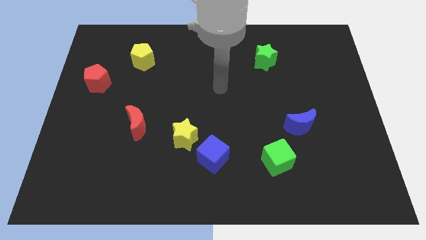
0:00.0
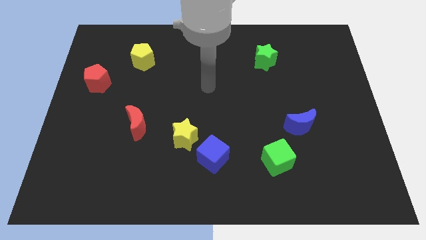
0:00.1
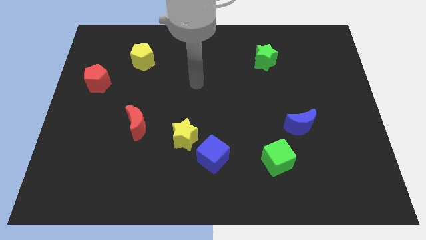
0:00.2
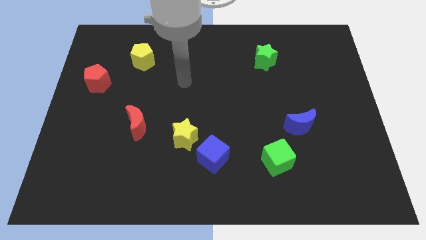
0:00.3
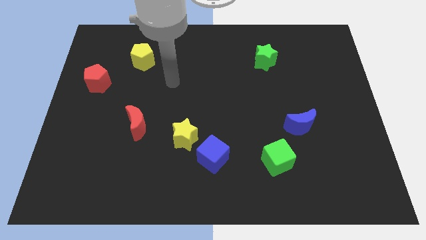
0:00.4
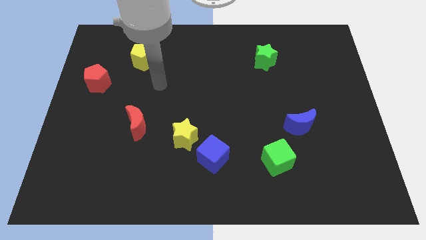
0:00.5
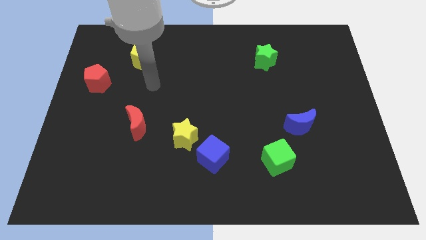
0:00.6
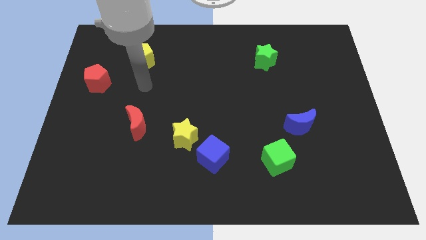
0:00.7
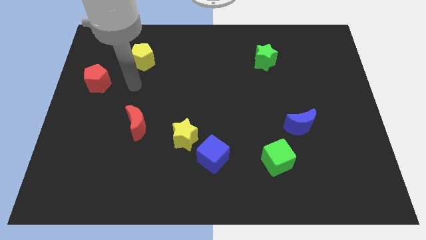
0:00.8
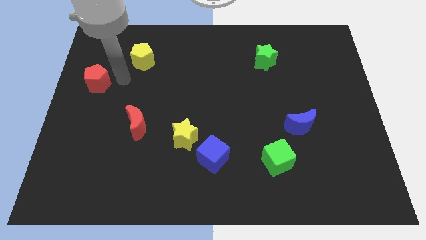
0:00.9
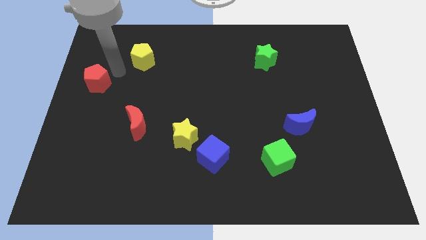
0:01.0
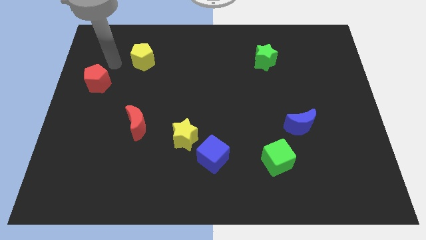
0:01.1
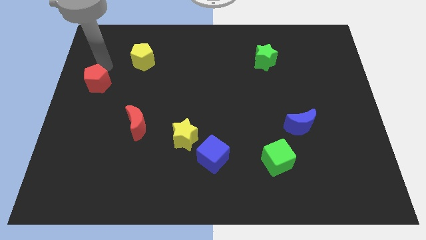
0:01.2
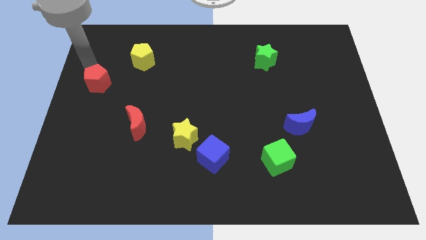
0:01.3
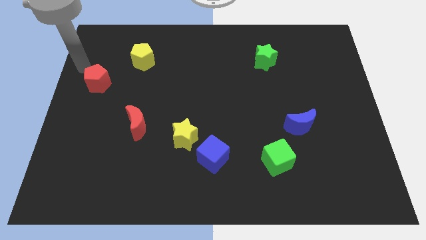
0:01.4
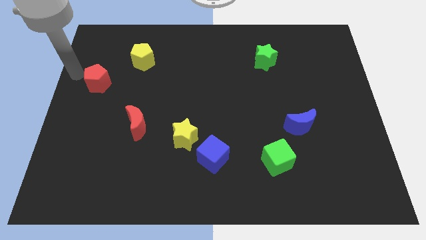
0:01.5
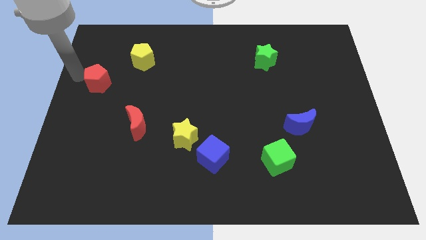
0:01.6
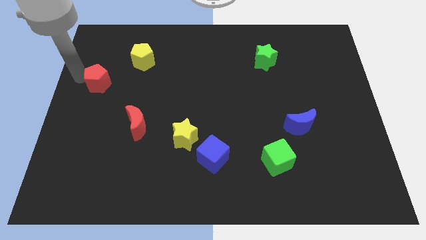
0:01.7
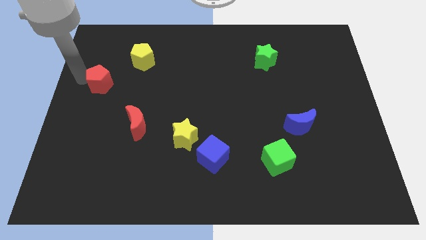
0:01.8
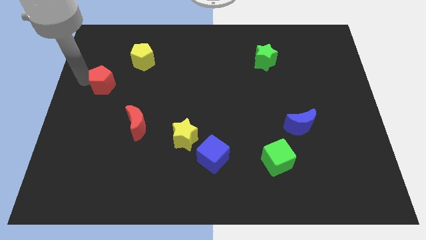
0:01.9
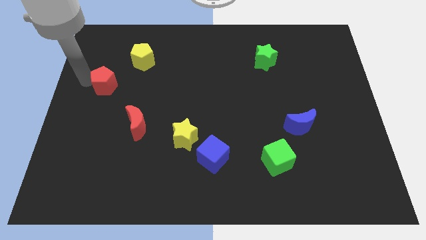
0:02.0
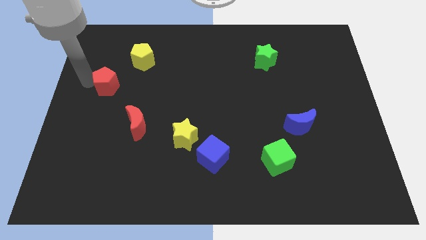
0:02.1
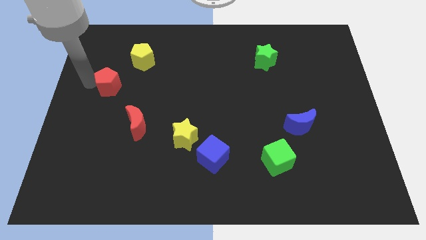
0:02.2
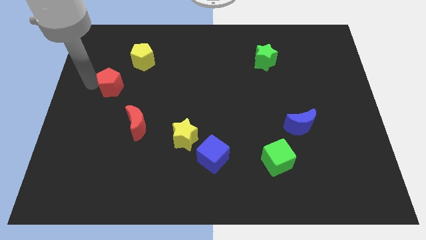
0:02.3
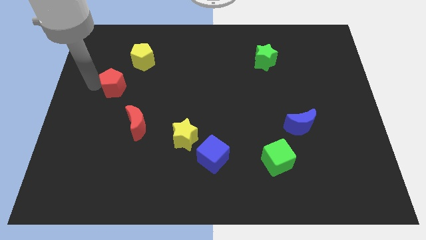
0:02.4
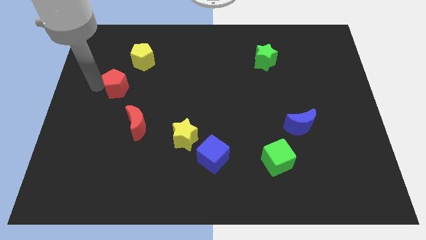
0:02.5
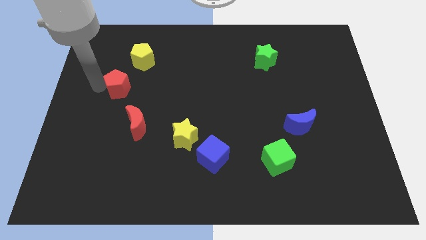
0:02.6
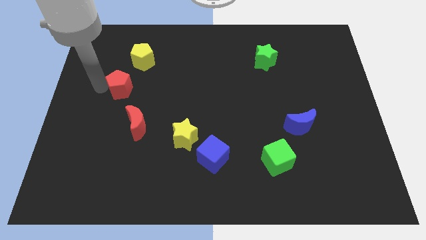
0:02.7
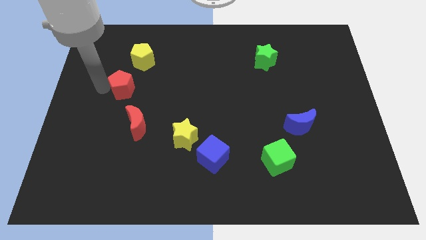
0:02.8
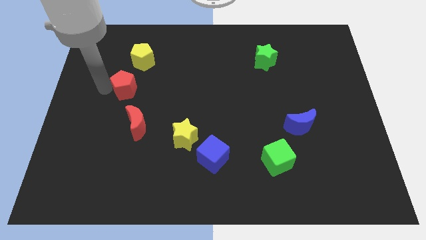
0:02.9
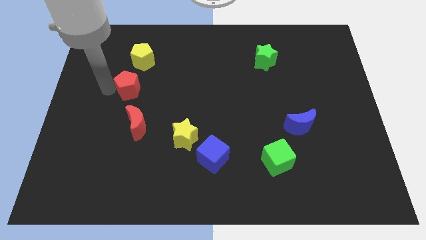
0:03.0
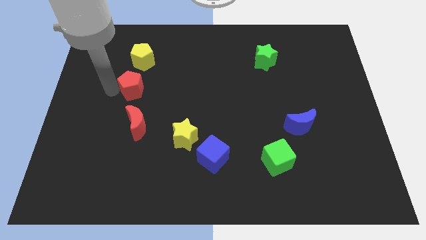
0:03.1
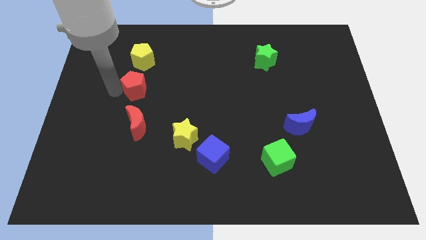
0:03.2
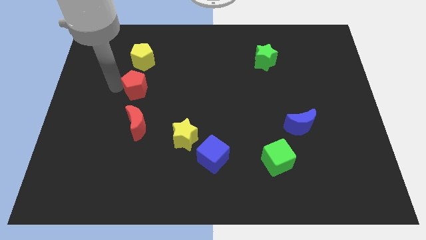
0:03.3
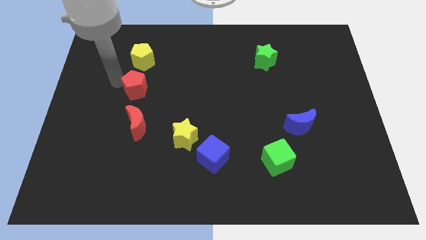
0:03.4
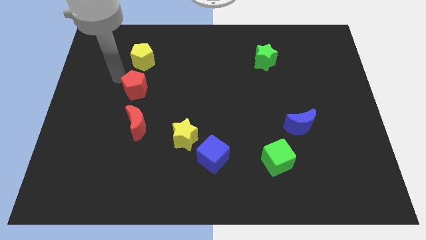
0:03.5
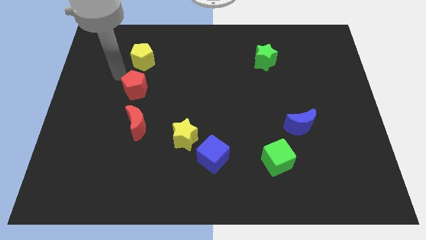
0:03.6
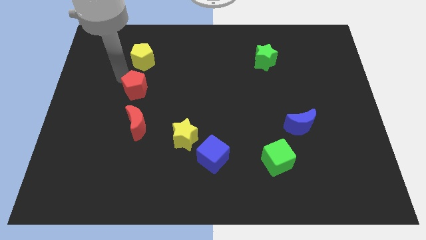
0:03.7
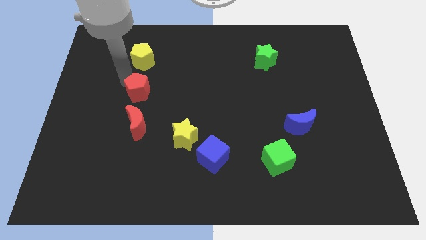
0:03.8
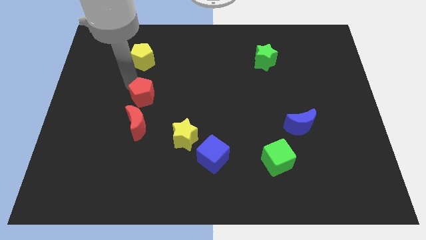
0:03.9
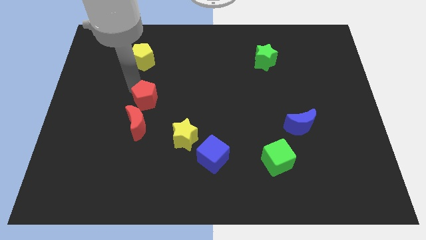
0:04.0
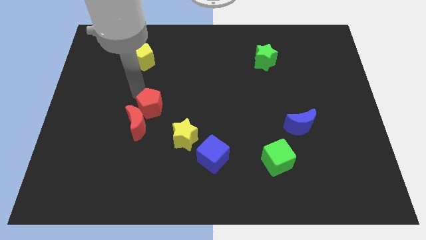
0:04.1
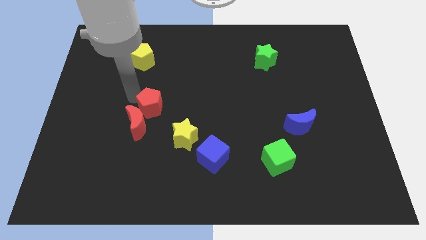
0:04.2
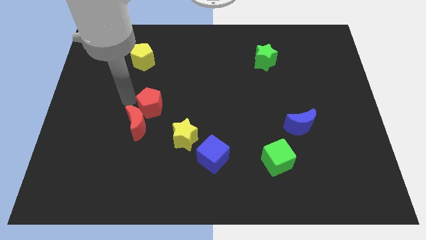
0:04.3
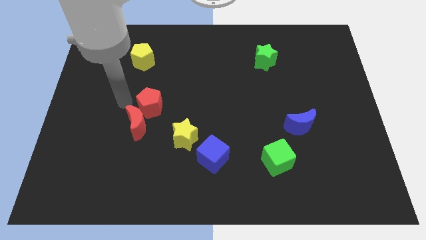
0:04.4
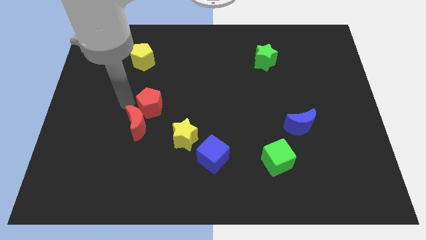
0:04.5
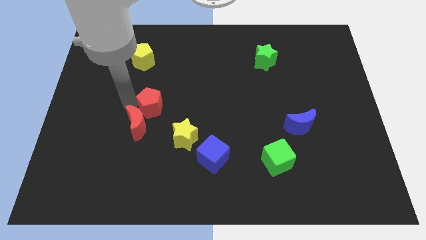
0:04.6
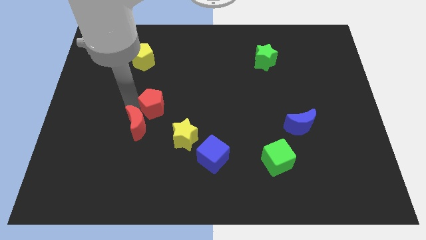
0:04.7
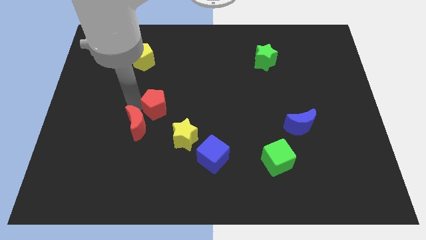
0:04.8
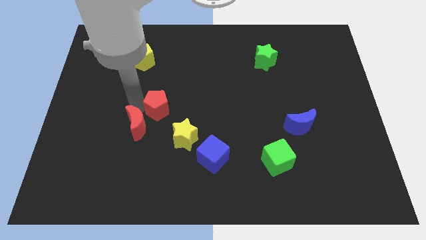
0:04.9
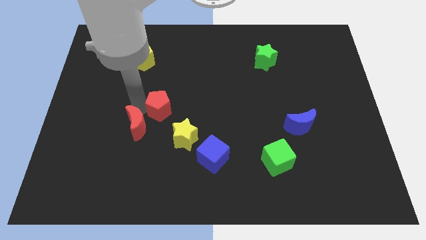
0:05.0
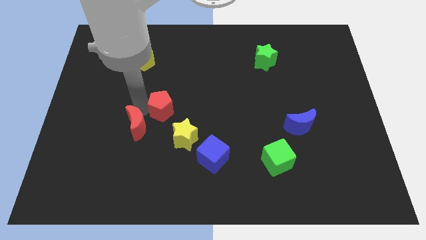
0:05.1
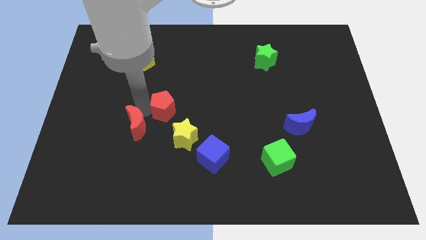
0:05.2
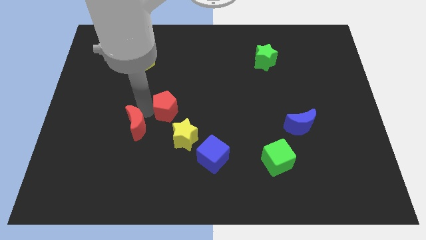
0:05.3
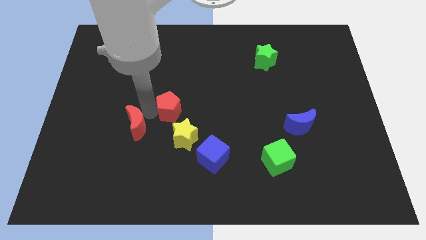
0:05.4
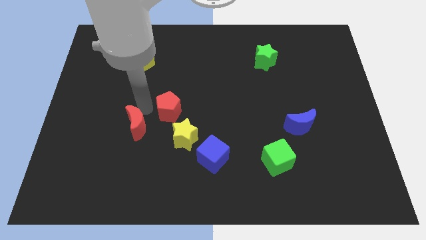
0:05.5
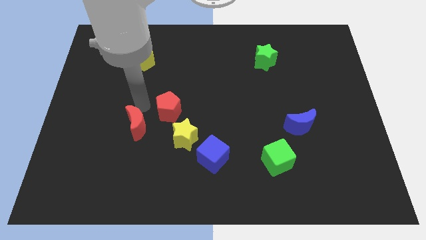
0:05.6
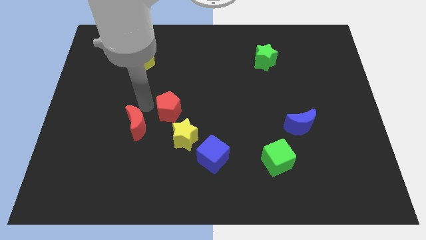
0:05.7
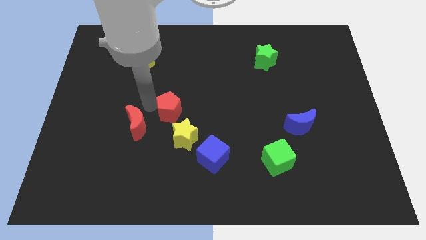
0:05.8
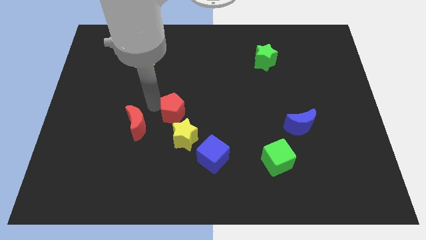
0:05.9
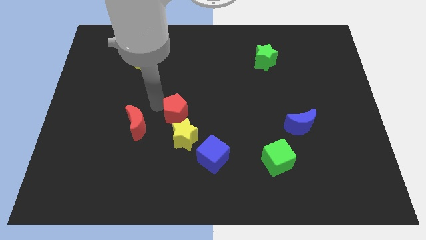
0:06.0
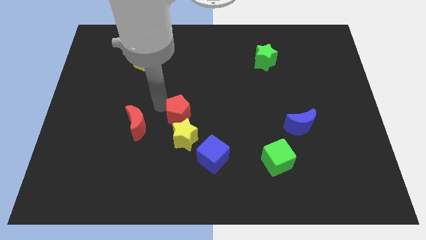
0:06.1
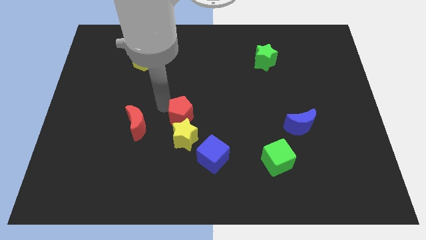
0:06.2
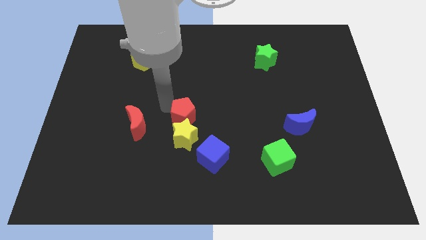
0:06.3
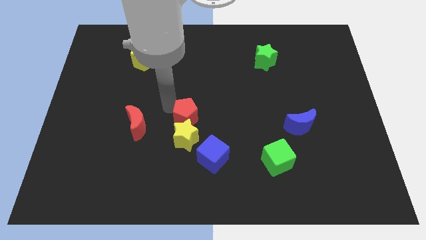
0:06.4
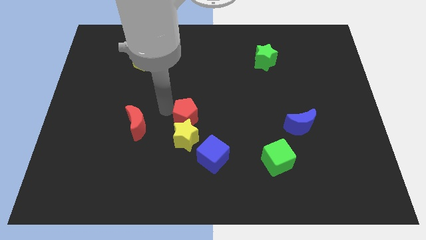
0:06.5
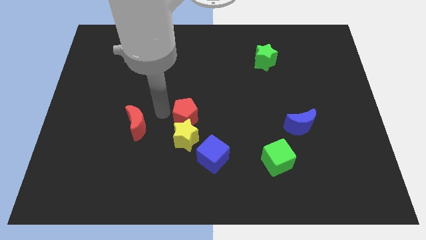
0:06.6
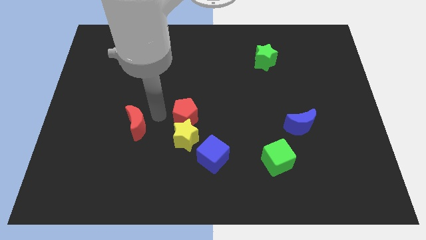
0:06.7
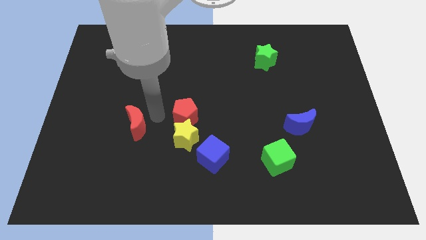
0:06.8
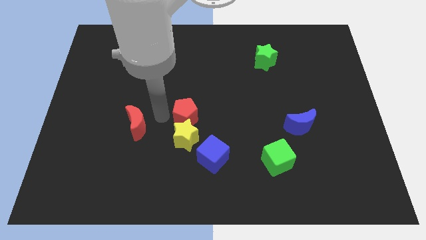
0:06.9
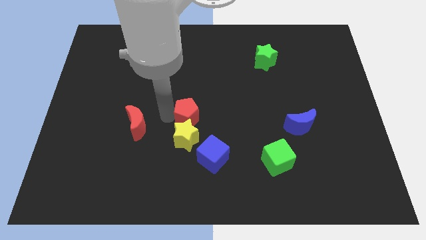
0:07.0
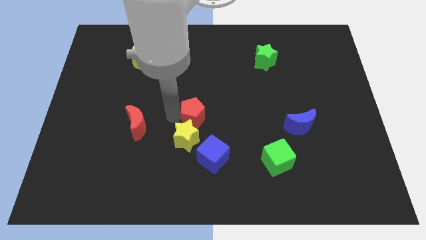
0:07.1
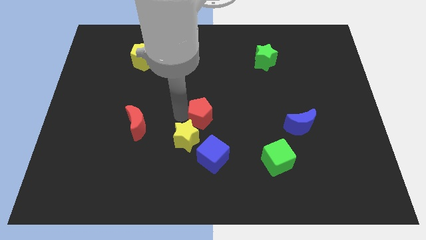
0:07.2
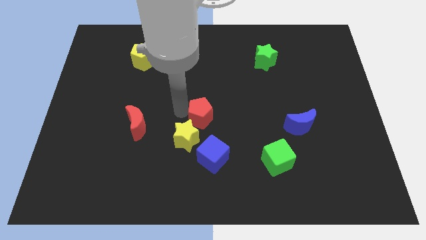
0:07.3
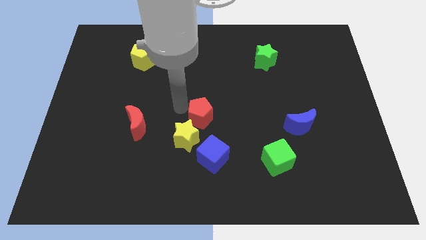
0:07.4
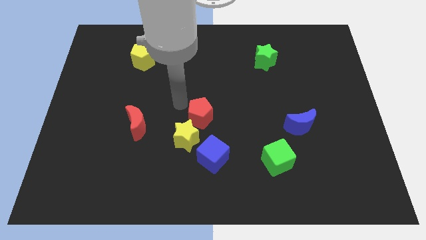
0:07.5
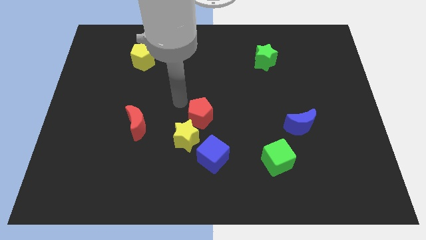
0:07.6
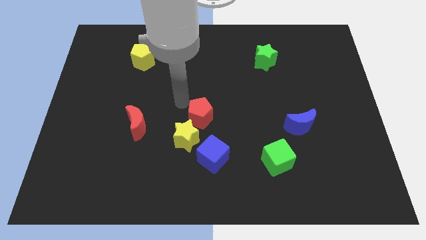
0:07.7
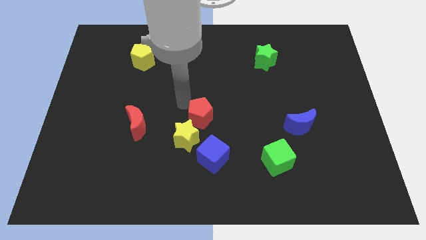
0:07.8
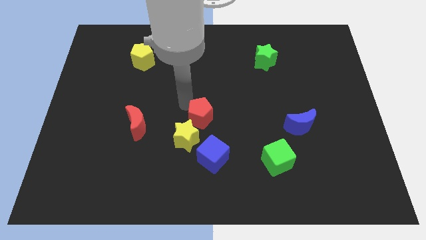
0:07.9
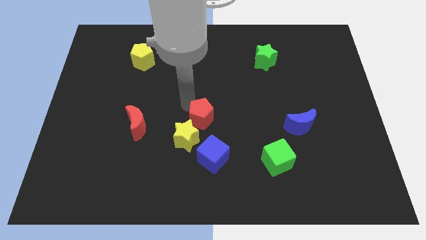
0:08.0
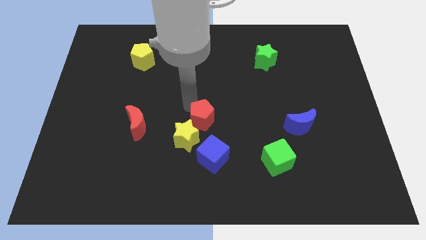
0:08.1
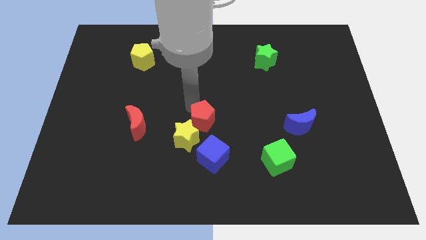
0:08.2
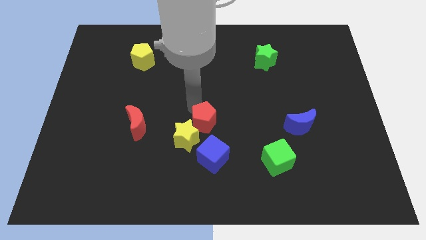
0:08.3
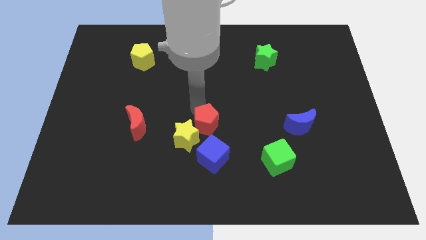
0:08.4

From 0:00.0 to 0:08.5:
move the red pentagon just right of the yellow star
